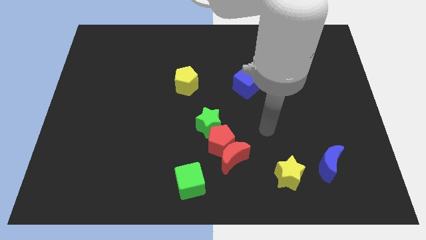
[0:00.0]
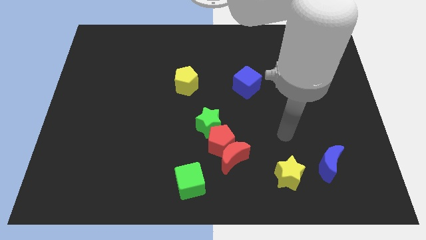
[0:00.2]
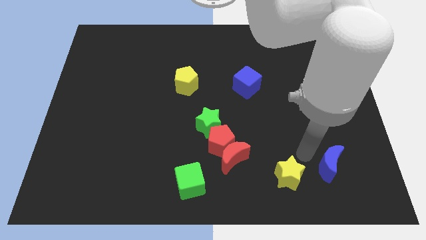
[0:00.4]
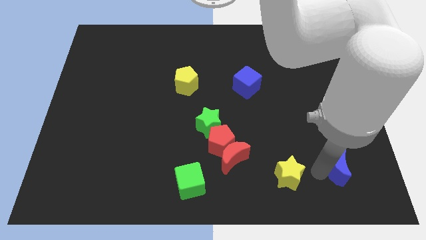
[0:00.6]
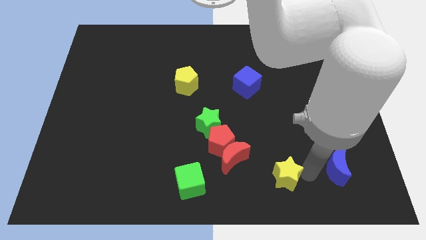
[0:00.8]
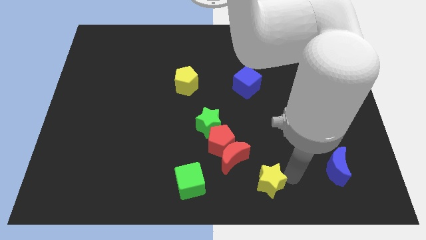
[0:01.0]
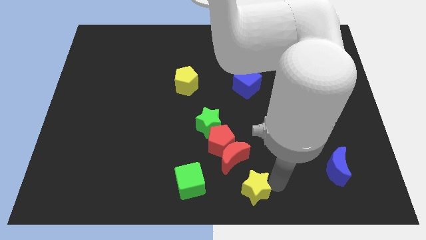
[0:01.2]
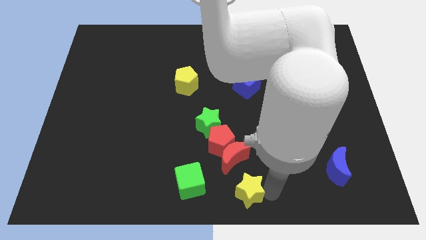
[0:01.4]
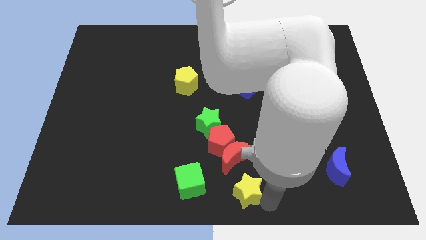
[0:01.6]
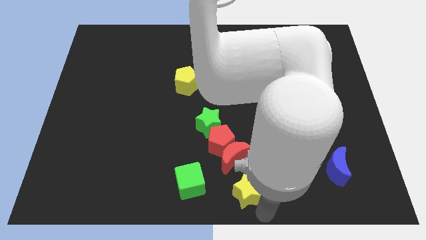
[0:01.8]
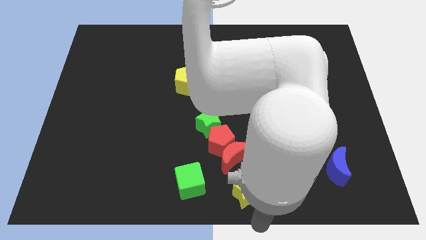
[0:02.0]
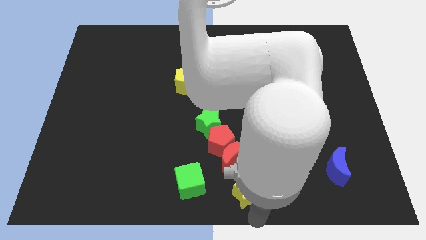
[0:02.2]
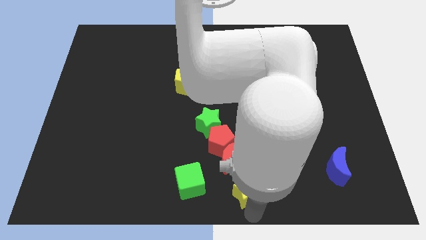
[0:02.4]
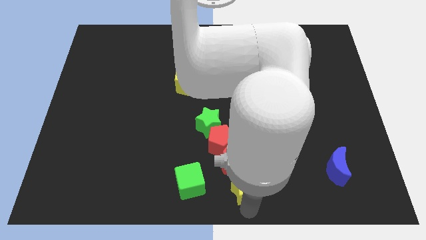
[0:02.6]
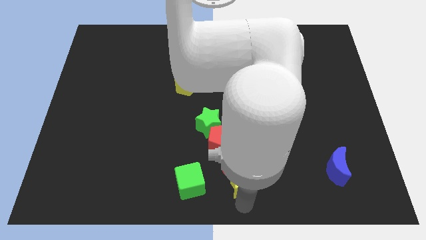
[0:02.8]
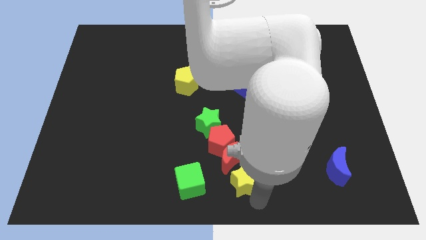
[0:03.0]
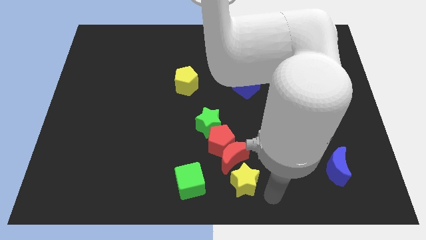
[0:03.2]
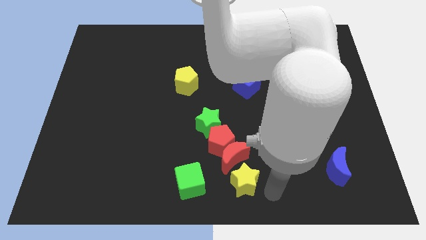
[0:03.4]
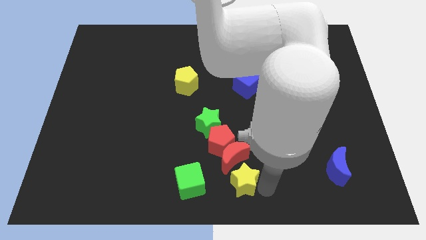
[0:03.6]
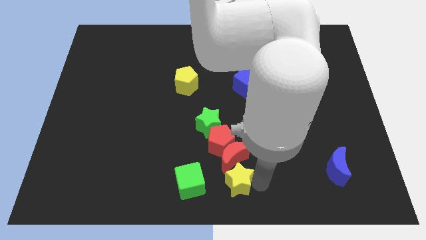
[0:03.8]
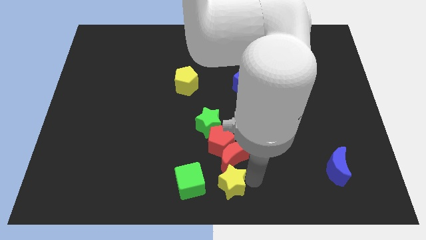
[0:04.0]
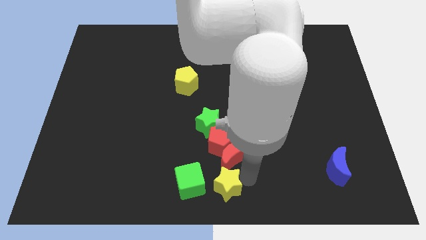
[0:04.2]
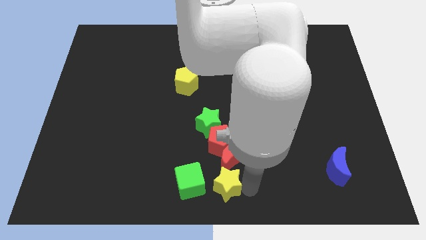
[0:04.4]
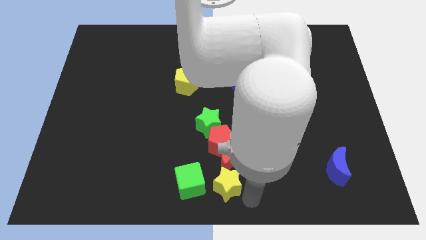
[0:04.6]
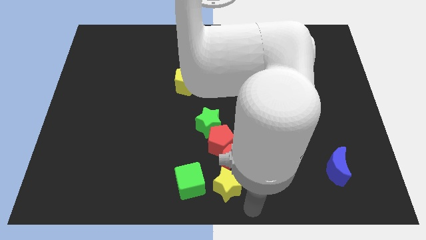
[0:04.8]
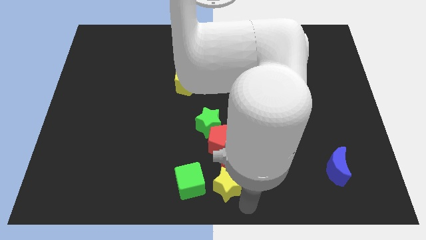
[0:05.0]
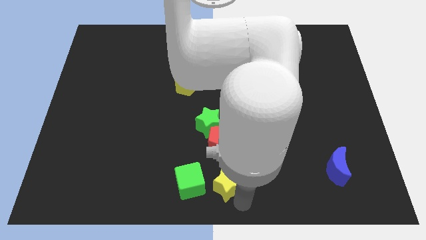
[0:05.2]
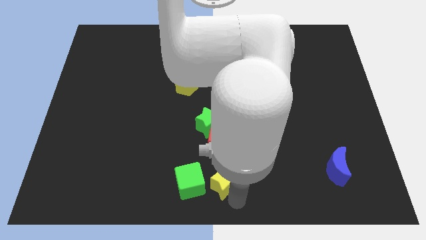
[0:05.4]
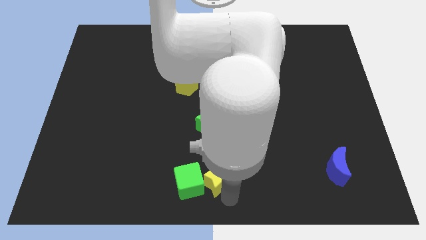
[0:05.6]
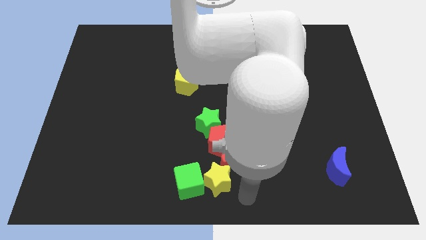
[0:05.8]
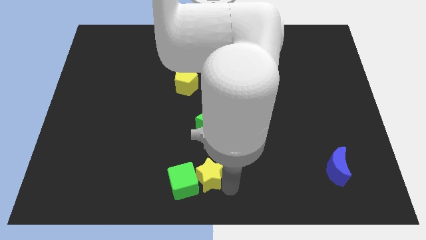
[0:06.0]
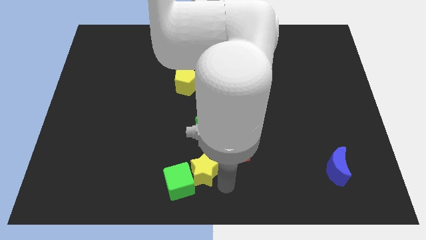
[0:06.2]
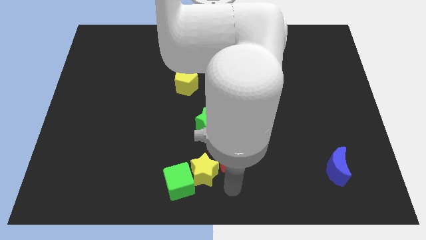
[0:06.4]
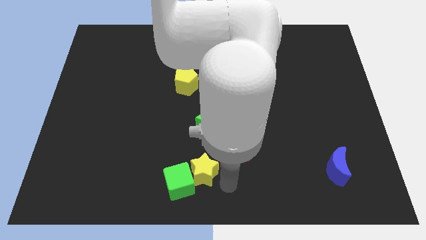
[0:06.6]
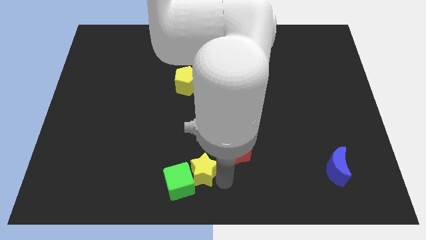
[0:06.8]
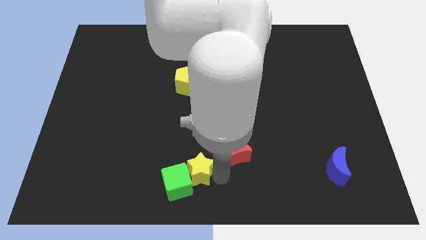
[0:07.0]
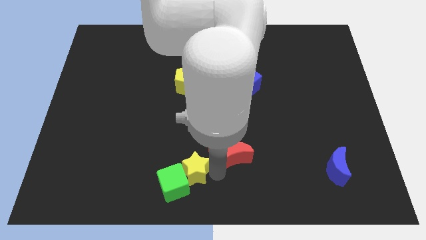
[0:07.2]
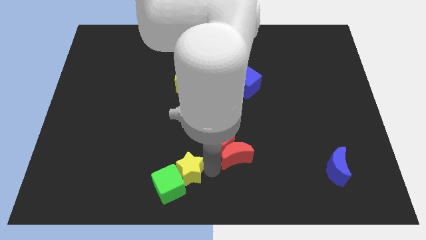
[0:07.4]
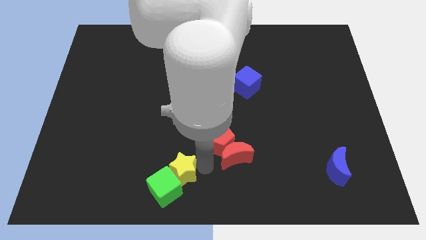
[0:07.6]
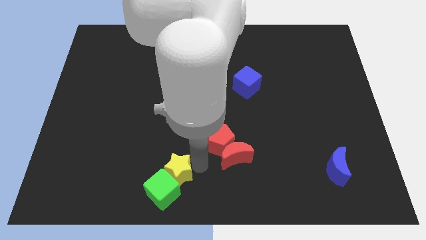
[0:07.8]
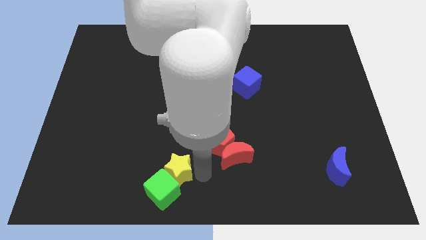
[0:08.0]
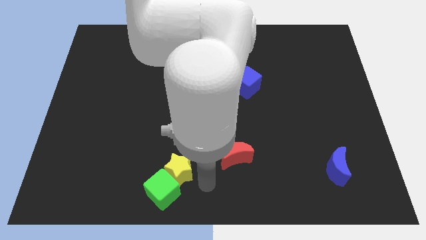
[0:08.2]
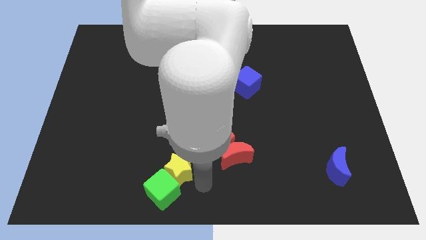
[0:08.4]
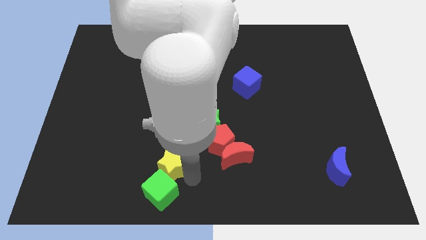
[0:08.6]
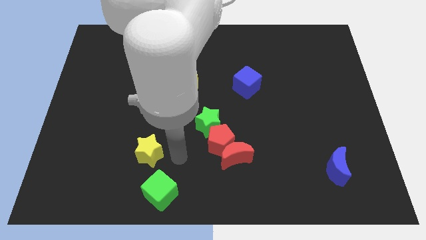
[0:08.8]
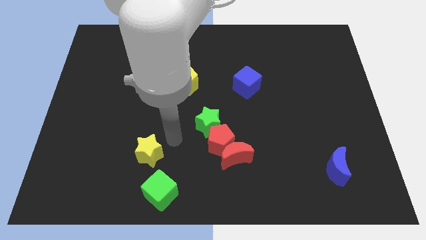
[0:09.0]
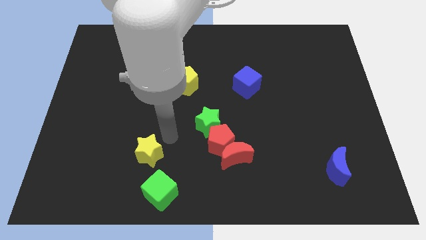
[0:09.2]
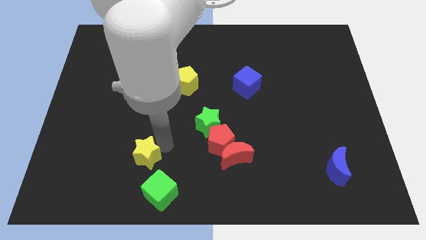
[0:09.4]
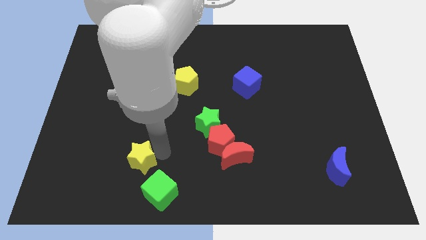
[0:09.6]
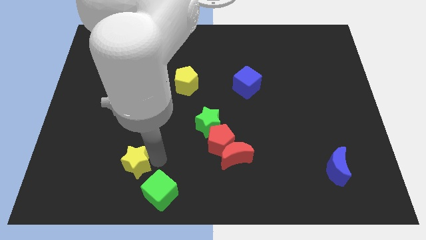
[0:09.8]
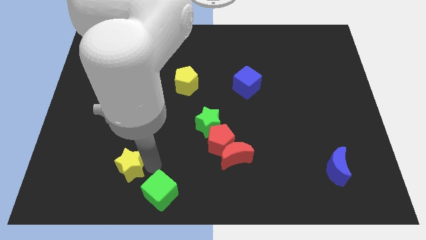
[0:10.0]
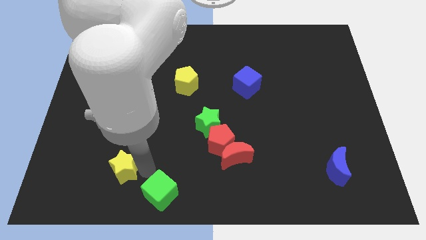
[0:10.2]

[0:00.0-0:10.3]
put the yellow star just left of the green cube

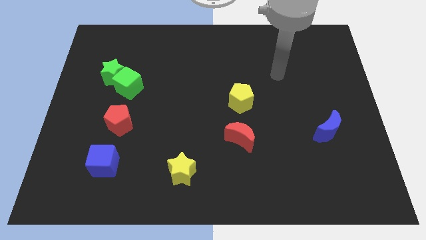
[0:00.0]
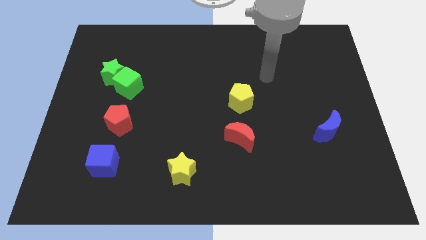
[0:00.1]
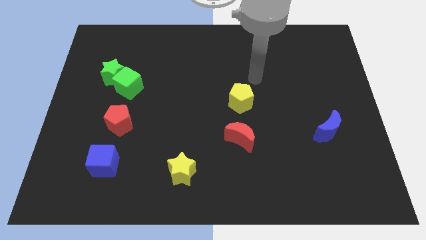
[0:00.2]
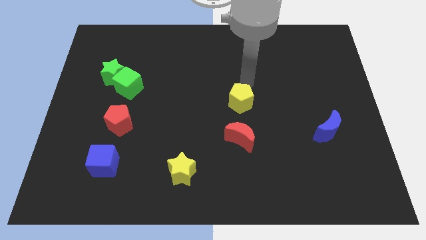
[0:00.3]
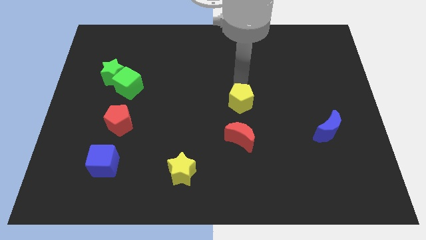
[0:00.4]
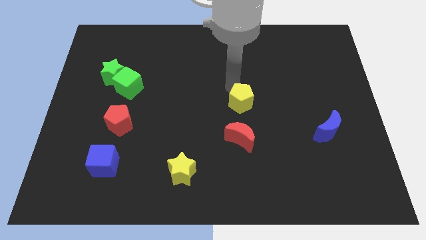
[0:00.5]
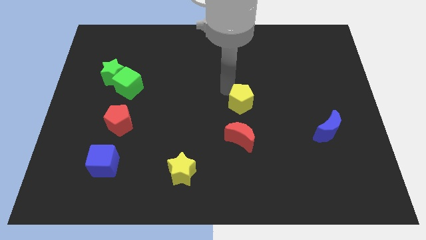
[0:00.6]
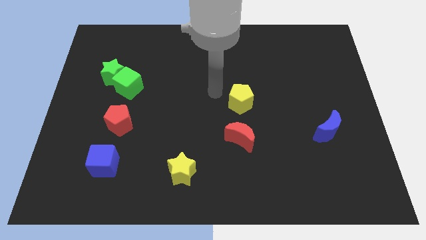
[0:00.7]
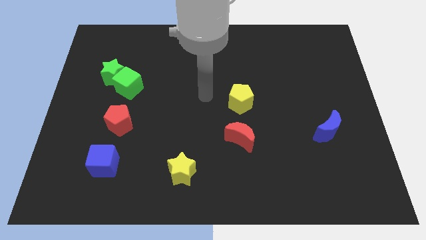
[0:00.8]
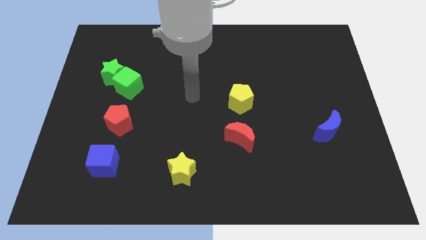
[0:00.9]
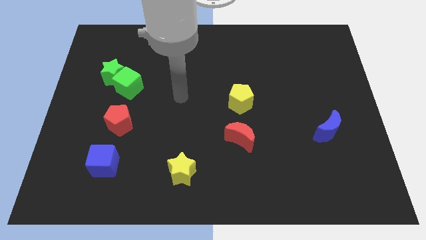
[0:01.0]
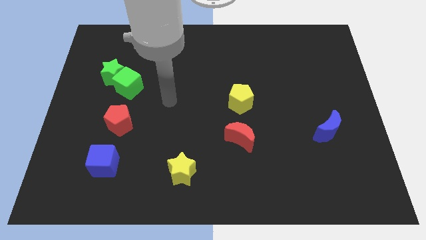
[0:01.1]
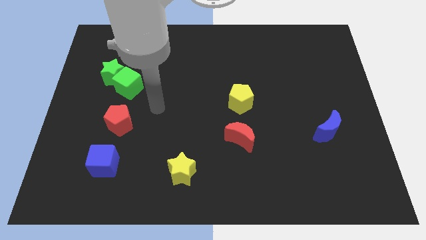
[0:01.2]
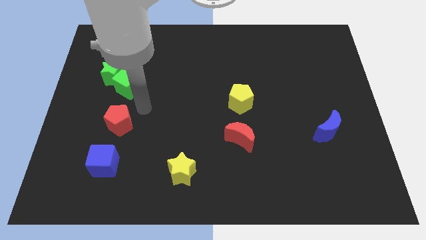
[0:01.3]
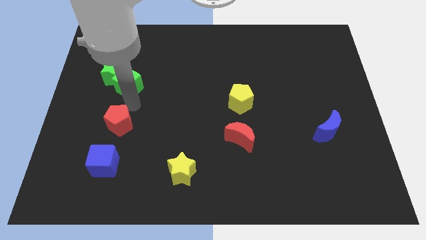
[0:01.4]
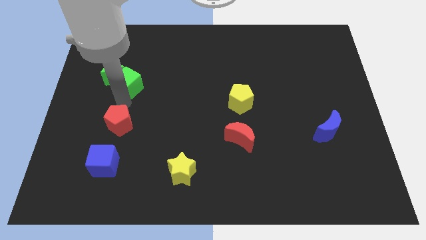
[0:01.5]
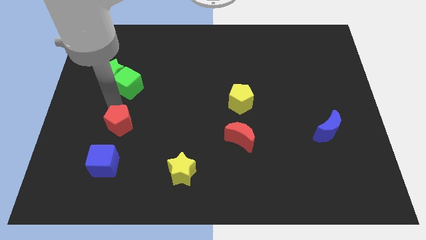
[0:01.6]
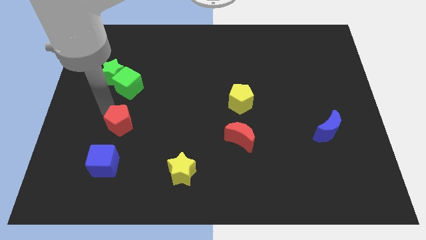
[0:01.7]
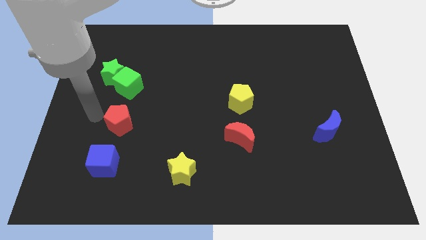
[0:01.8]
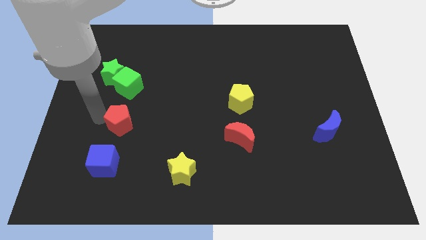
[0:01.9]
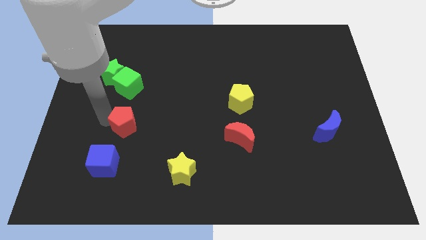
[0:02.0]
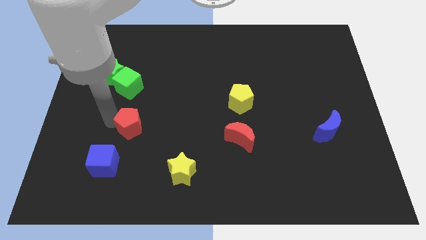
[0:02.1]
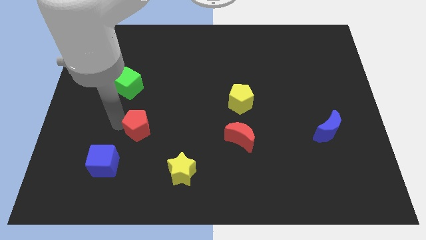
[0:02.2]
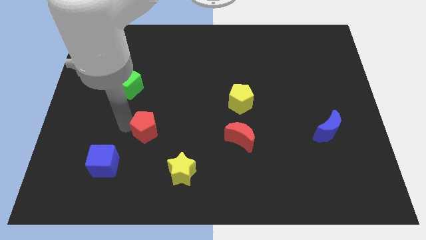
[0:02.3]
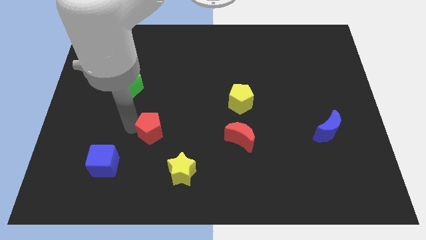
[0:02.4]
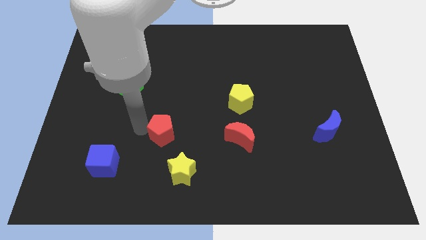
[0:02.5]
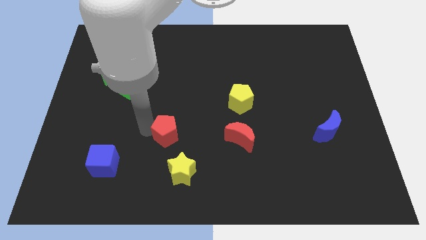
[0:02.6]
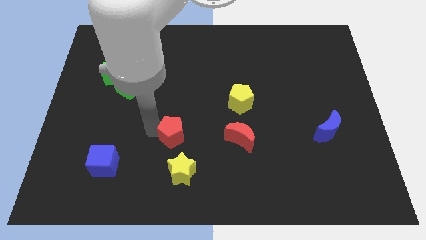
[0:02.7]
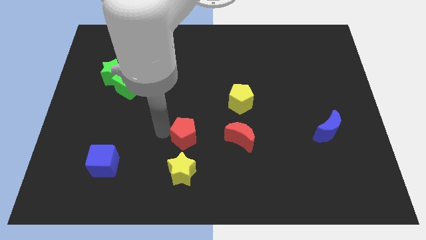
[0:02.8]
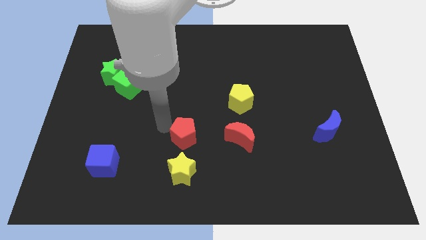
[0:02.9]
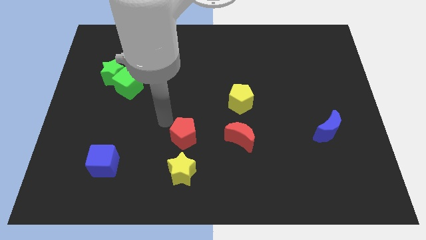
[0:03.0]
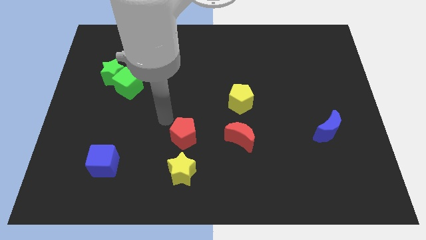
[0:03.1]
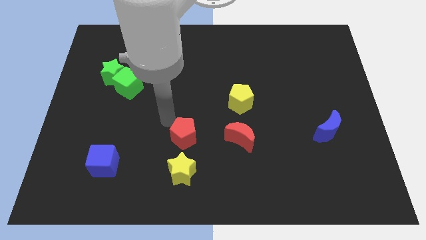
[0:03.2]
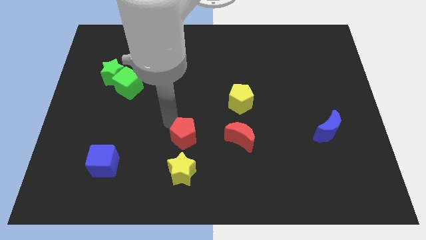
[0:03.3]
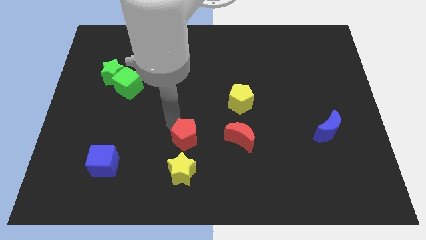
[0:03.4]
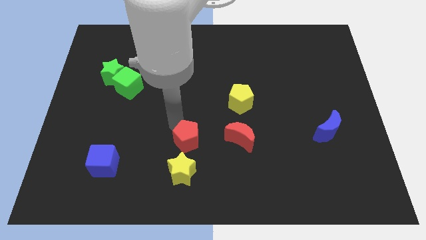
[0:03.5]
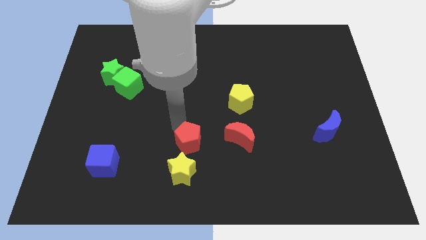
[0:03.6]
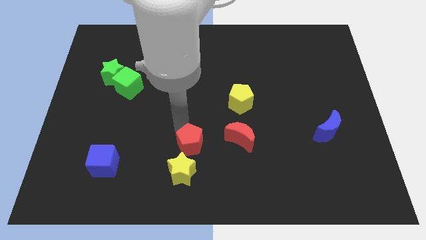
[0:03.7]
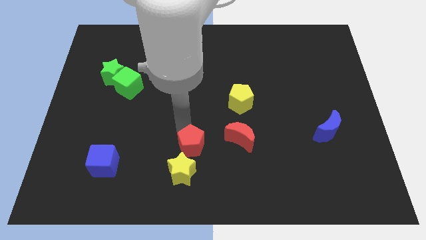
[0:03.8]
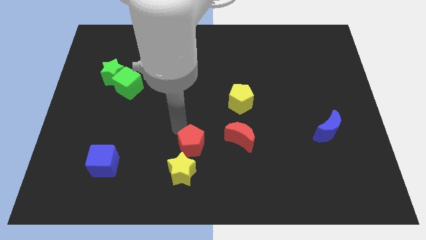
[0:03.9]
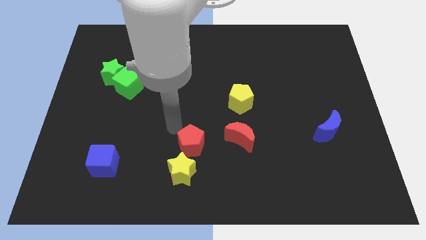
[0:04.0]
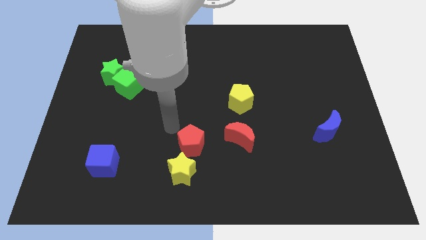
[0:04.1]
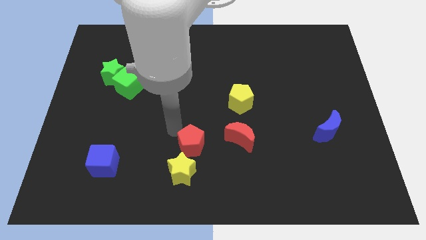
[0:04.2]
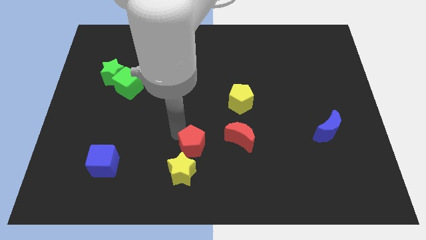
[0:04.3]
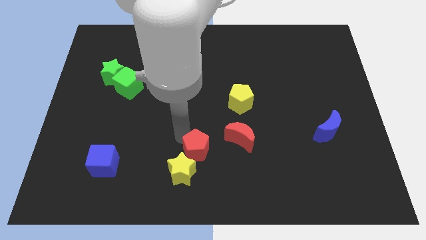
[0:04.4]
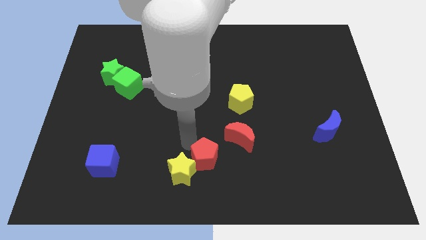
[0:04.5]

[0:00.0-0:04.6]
put the red pentagon to the right of the yellow star
